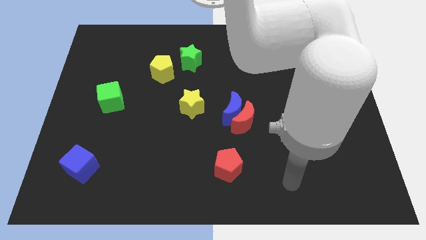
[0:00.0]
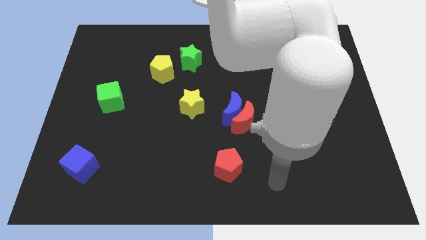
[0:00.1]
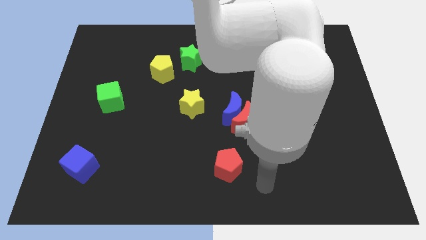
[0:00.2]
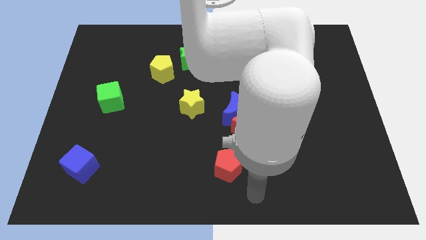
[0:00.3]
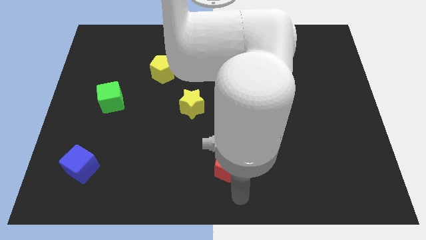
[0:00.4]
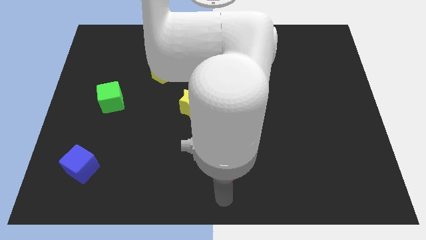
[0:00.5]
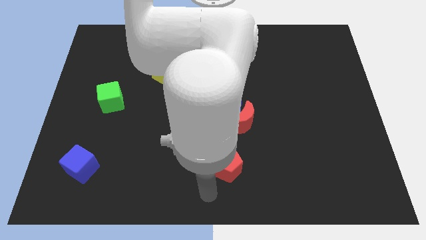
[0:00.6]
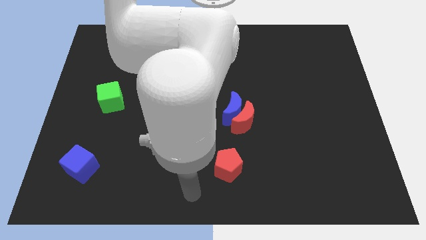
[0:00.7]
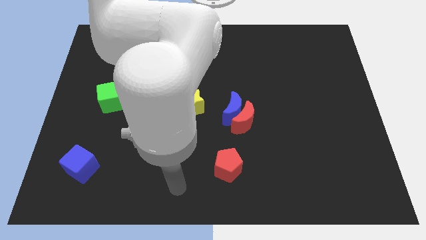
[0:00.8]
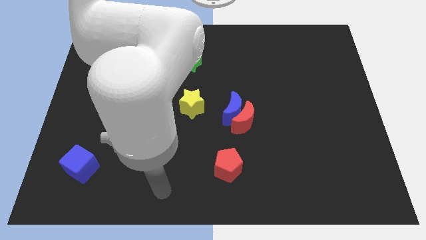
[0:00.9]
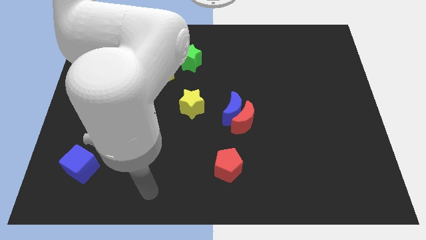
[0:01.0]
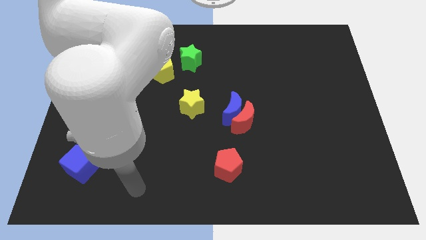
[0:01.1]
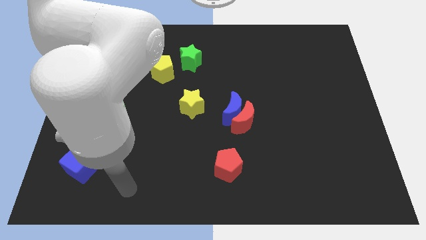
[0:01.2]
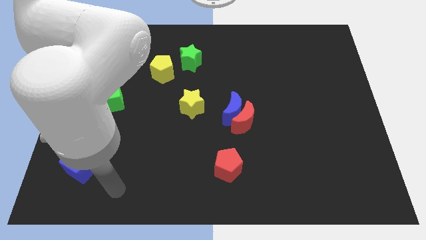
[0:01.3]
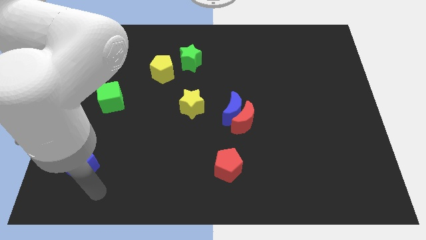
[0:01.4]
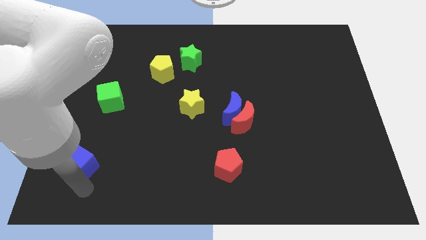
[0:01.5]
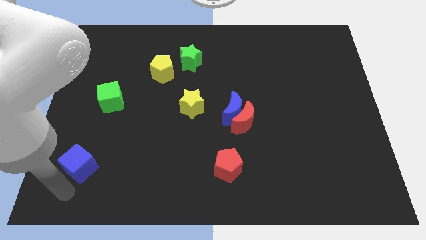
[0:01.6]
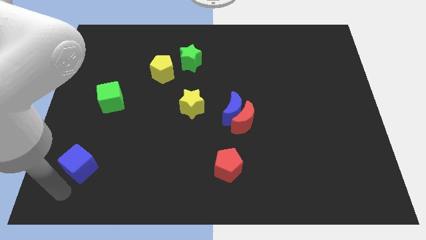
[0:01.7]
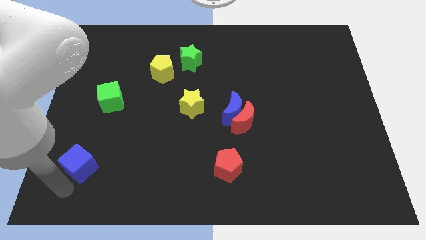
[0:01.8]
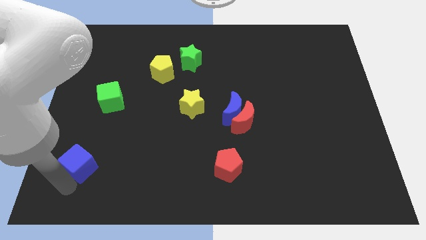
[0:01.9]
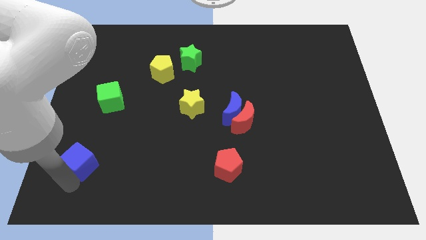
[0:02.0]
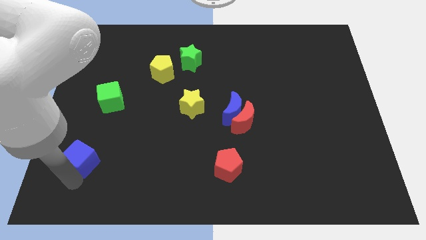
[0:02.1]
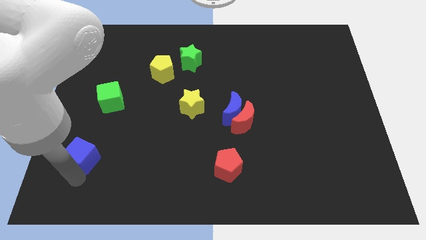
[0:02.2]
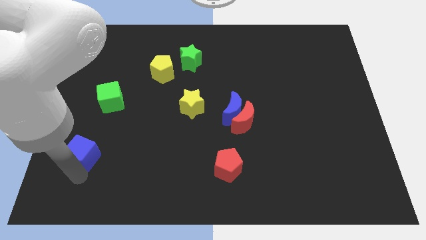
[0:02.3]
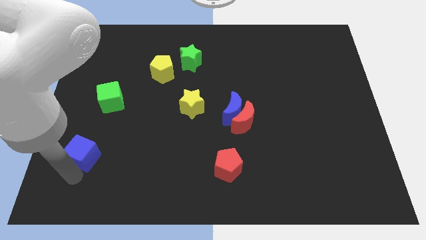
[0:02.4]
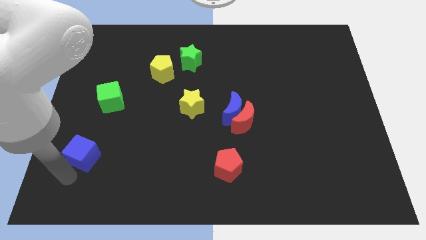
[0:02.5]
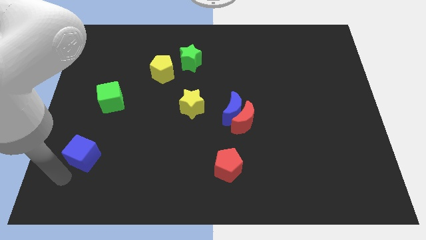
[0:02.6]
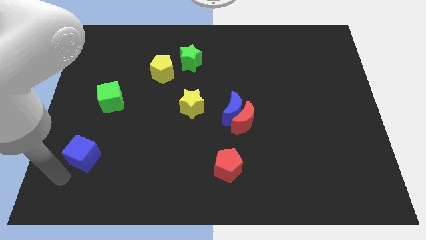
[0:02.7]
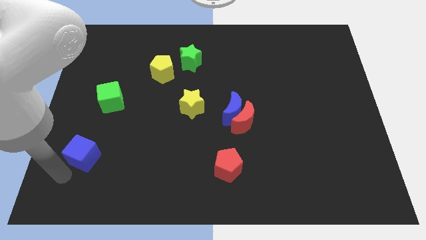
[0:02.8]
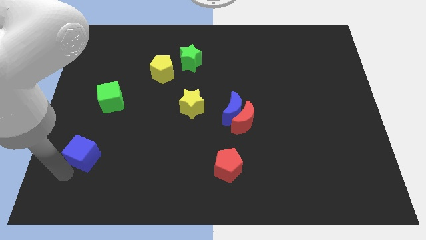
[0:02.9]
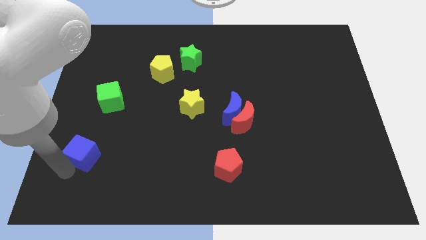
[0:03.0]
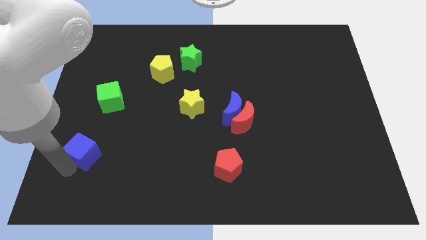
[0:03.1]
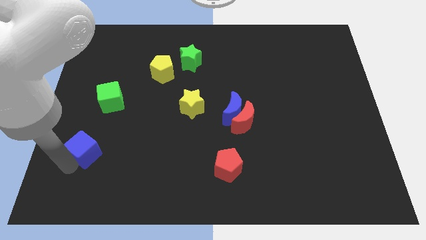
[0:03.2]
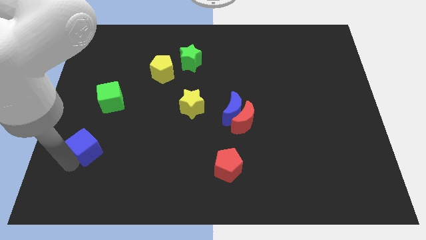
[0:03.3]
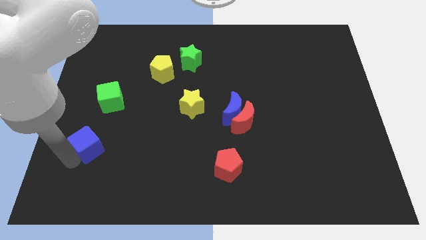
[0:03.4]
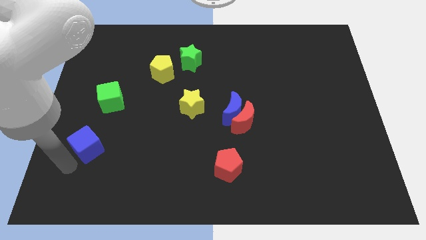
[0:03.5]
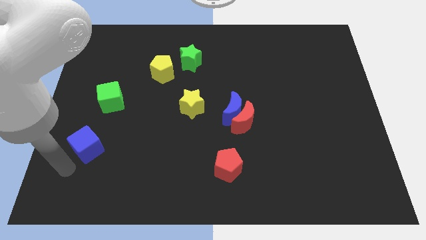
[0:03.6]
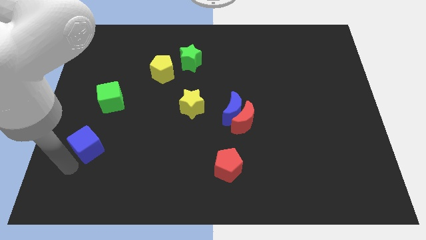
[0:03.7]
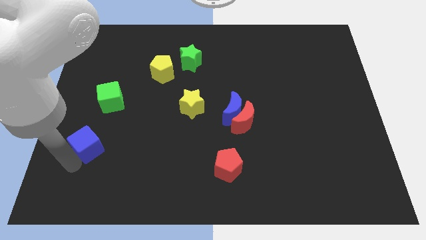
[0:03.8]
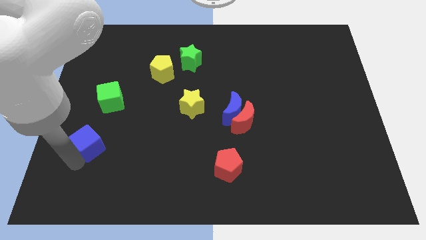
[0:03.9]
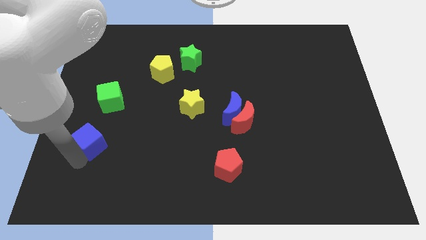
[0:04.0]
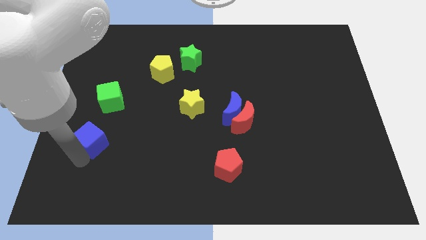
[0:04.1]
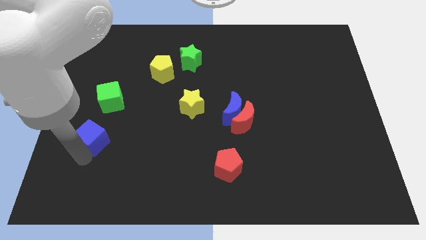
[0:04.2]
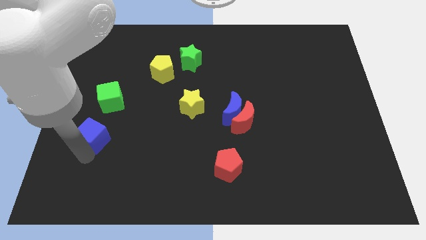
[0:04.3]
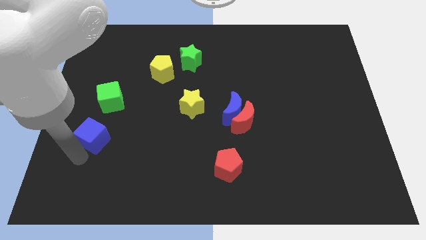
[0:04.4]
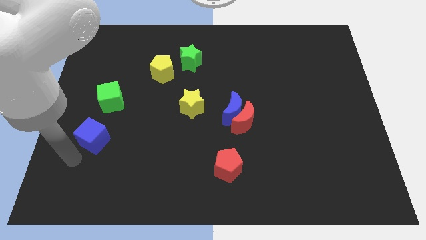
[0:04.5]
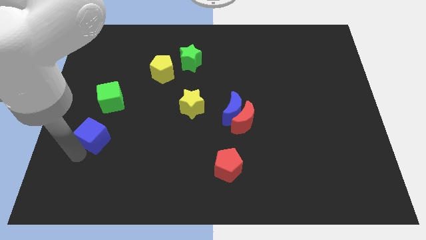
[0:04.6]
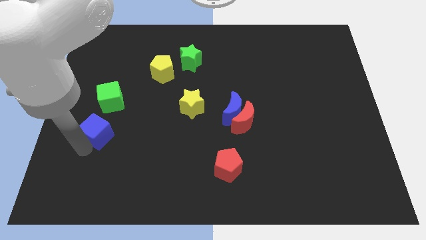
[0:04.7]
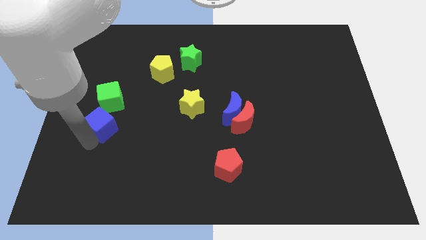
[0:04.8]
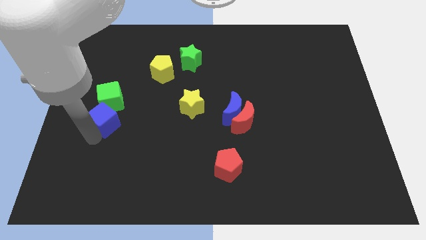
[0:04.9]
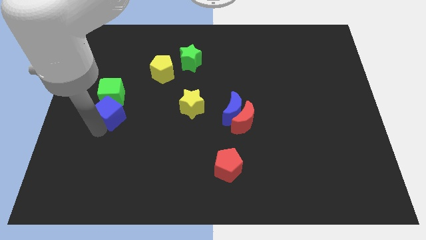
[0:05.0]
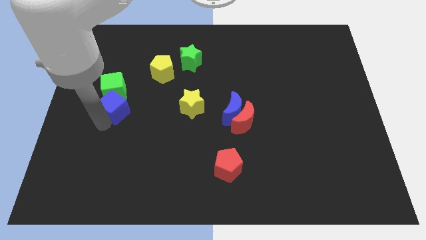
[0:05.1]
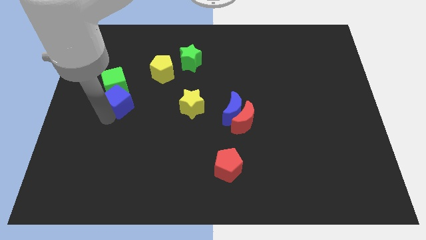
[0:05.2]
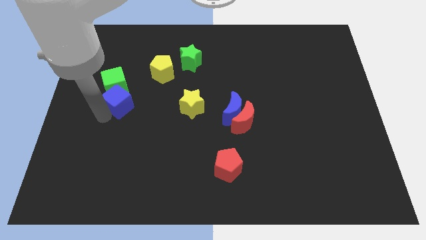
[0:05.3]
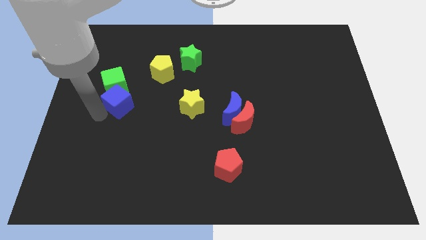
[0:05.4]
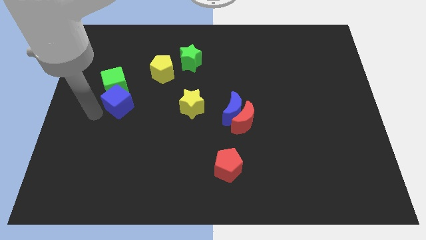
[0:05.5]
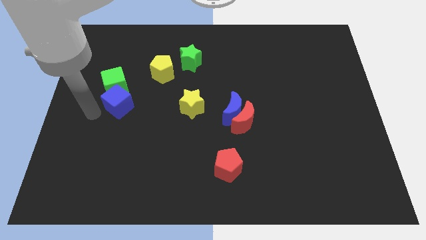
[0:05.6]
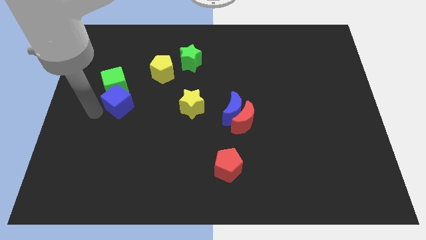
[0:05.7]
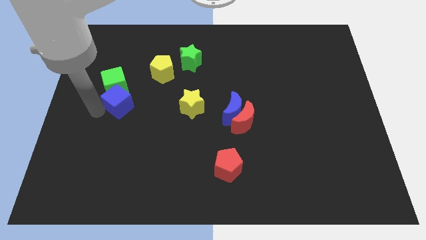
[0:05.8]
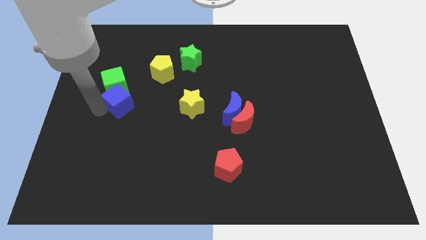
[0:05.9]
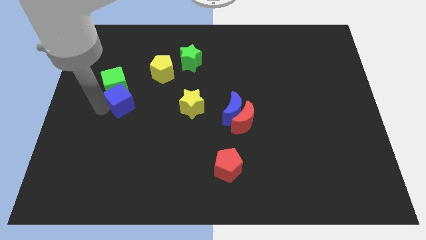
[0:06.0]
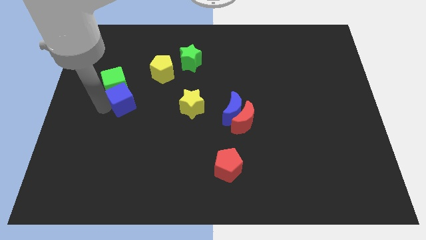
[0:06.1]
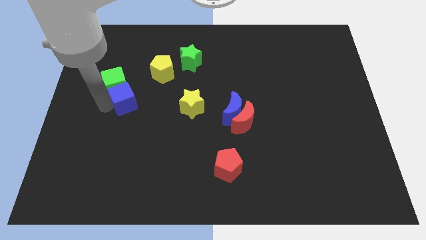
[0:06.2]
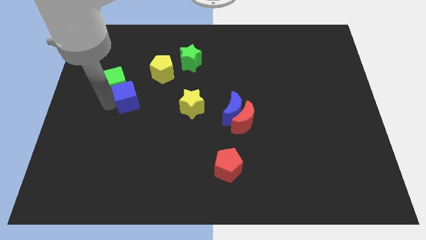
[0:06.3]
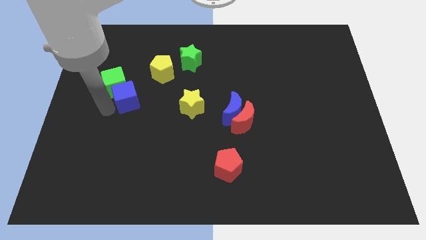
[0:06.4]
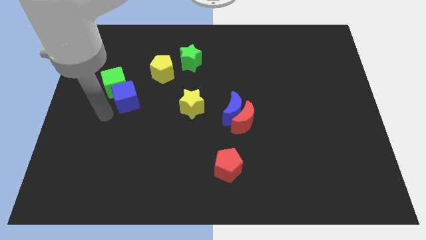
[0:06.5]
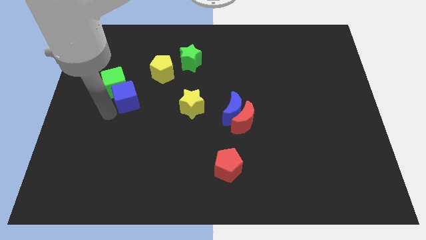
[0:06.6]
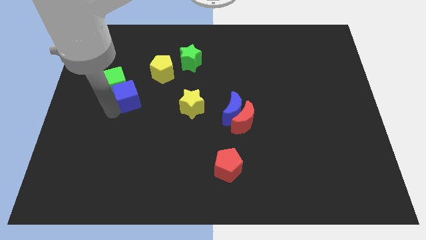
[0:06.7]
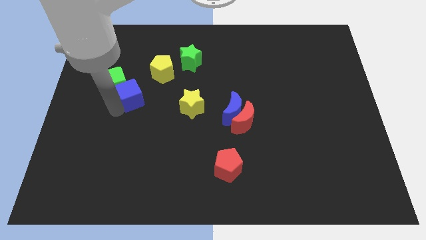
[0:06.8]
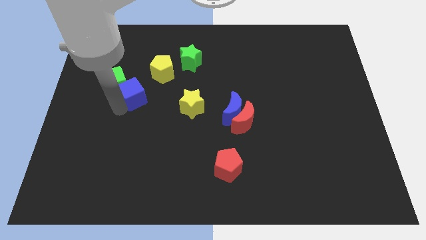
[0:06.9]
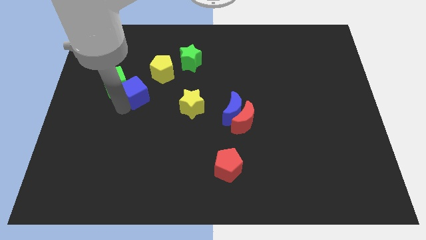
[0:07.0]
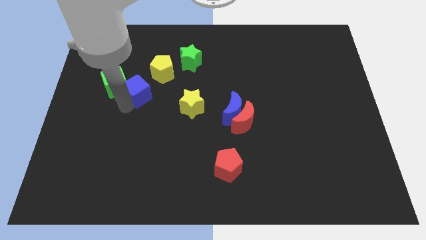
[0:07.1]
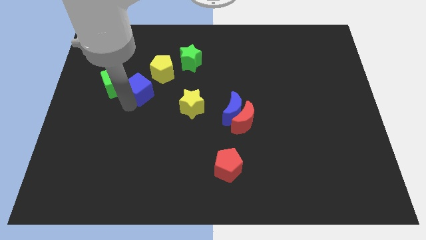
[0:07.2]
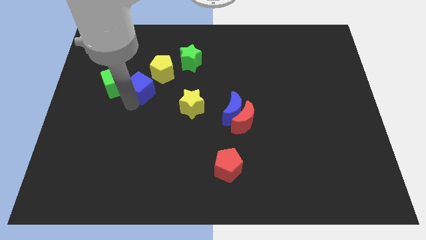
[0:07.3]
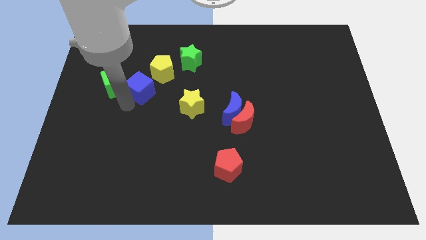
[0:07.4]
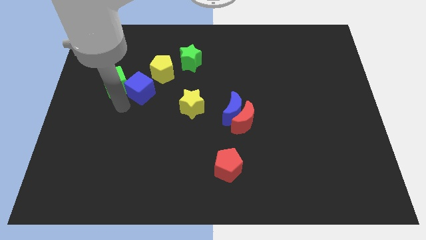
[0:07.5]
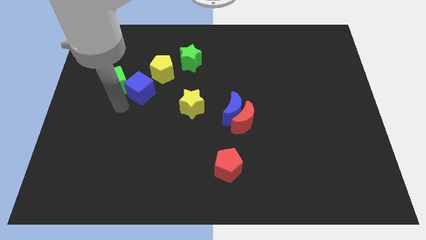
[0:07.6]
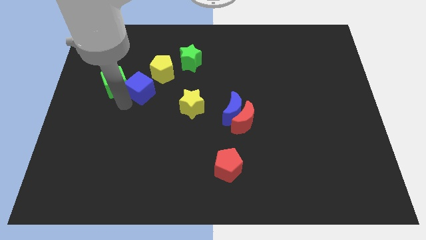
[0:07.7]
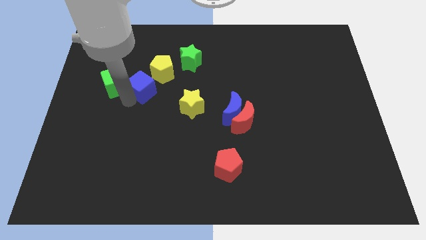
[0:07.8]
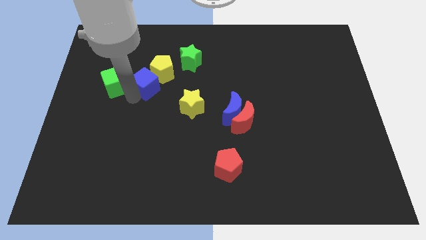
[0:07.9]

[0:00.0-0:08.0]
move the blue cube next to the yellow pentagon
